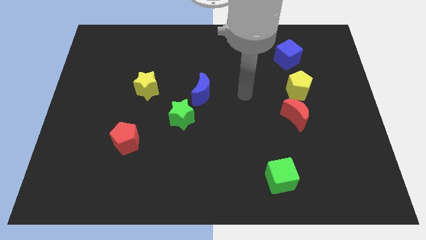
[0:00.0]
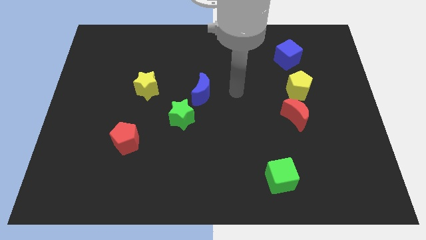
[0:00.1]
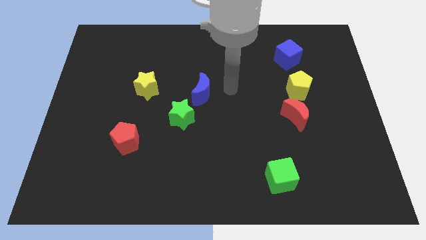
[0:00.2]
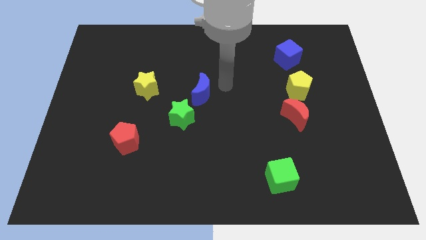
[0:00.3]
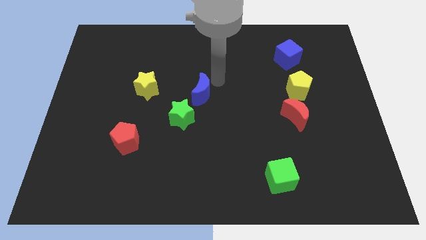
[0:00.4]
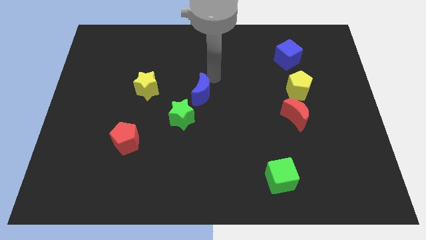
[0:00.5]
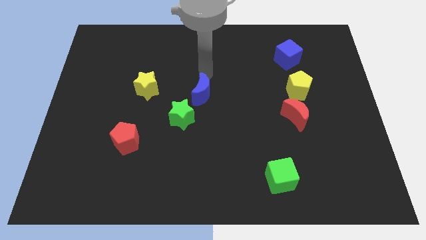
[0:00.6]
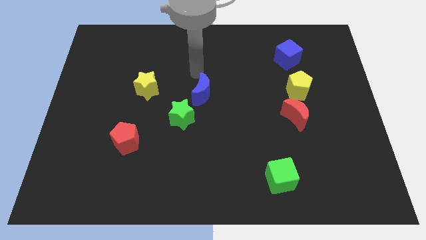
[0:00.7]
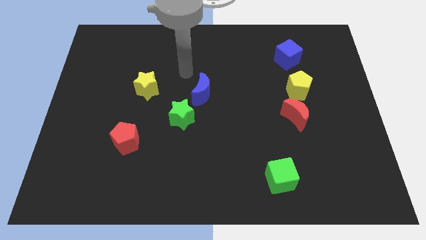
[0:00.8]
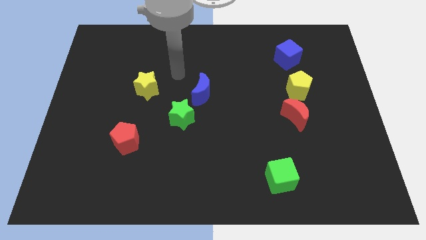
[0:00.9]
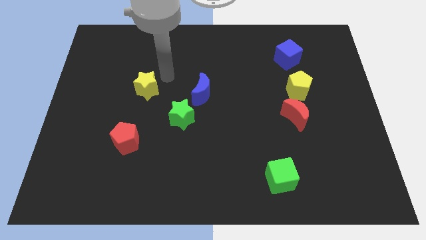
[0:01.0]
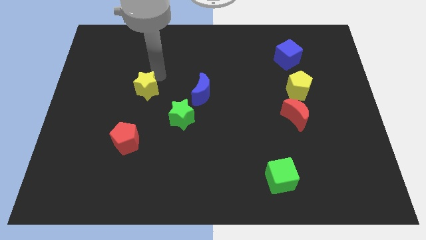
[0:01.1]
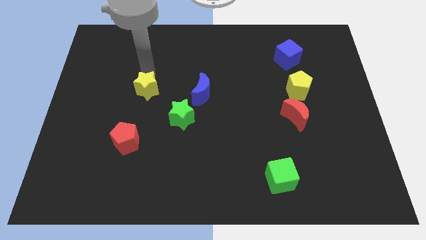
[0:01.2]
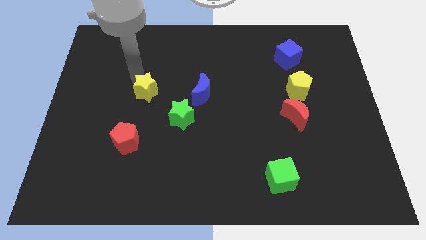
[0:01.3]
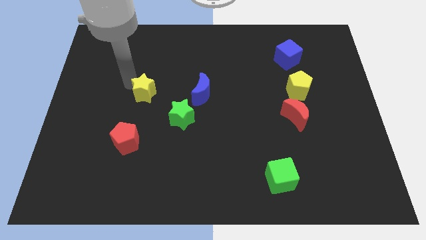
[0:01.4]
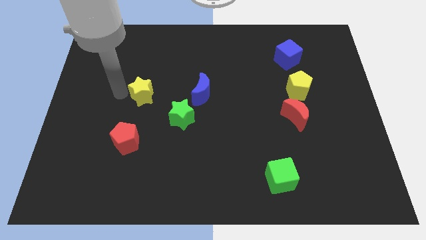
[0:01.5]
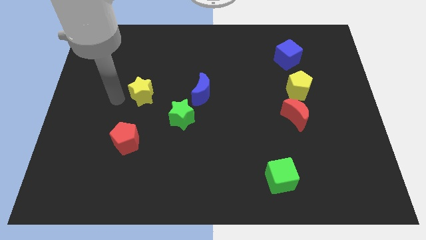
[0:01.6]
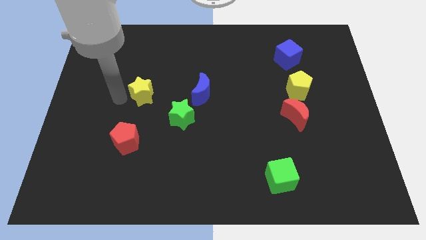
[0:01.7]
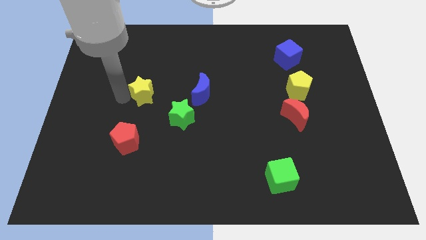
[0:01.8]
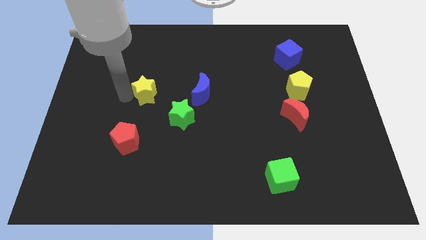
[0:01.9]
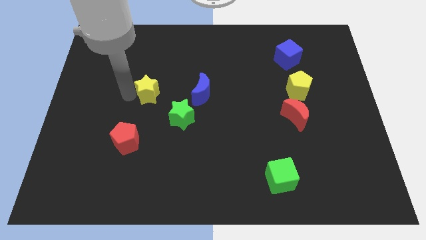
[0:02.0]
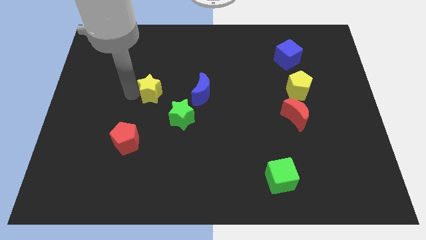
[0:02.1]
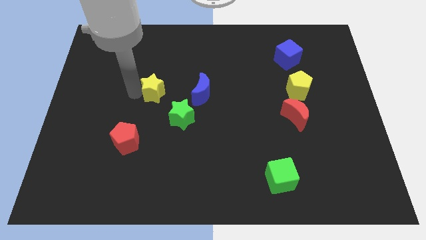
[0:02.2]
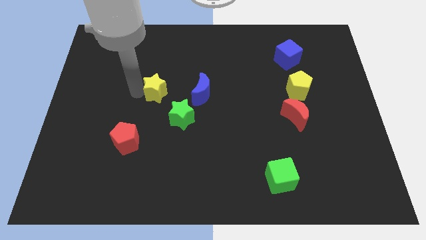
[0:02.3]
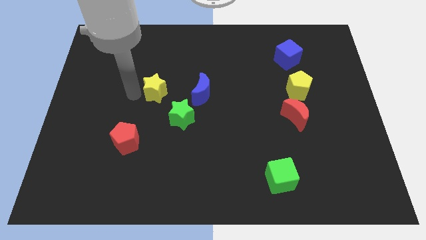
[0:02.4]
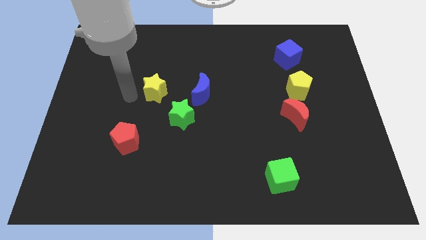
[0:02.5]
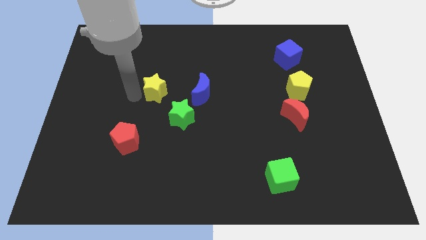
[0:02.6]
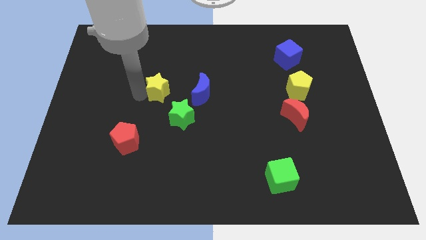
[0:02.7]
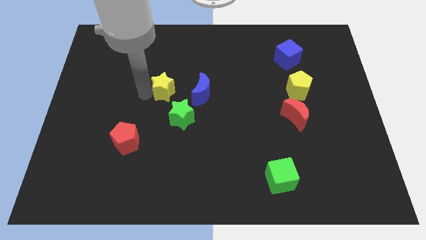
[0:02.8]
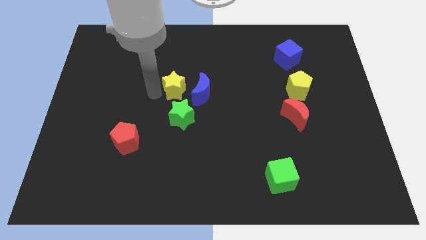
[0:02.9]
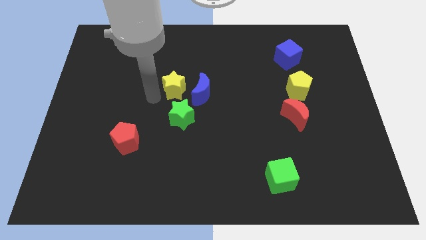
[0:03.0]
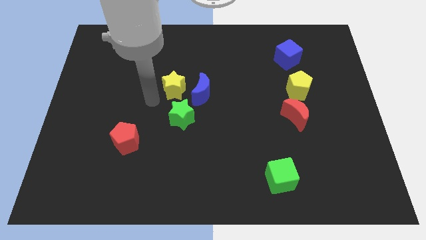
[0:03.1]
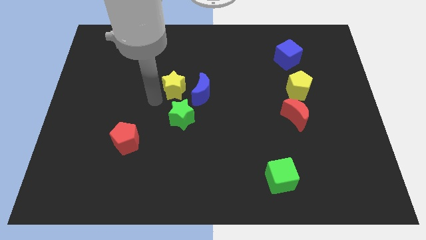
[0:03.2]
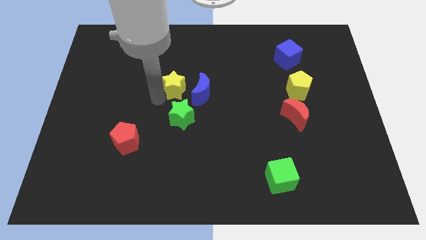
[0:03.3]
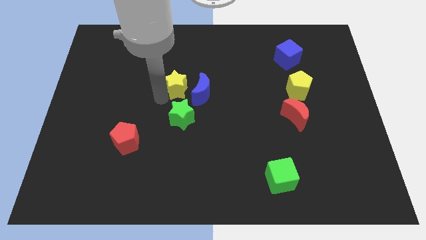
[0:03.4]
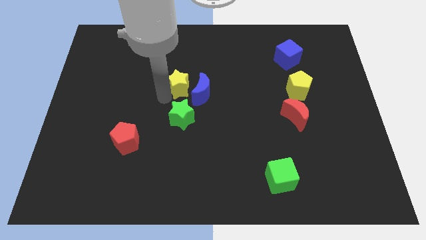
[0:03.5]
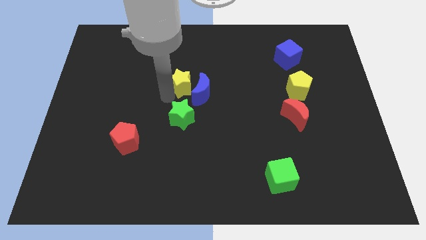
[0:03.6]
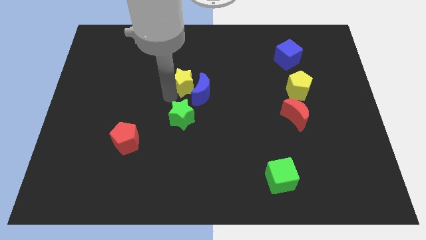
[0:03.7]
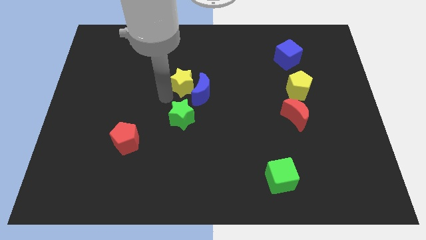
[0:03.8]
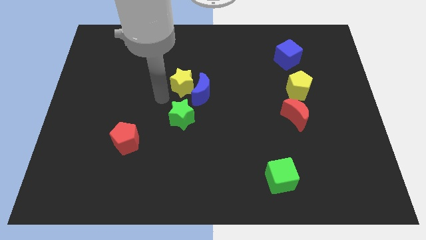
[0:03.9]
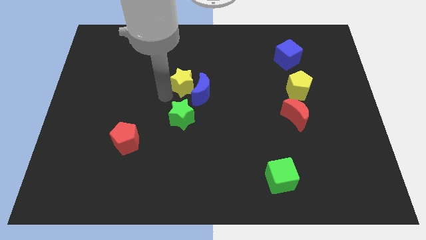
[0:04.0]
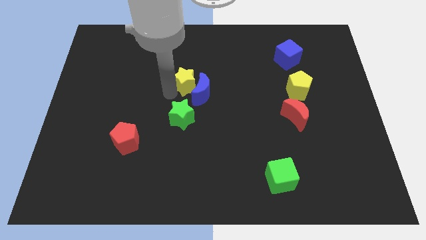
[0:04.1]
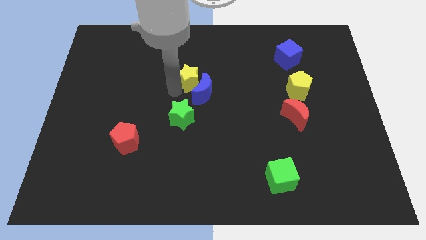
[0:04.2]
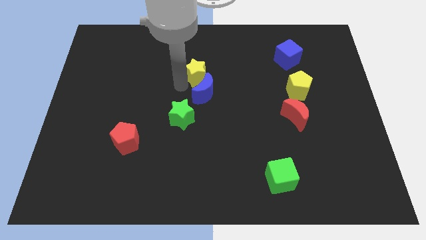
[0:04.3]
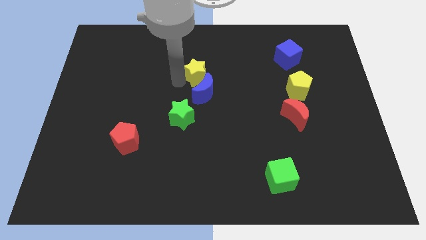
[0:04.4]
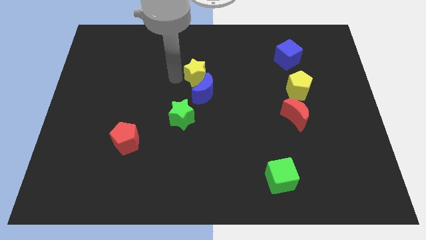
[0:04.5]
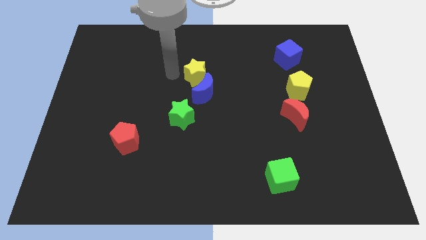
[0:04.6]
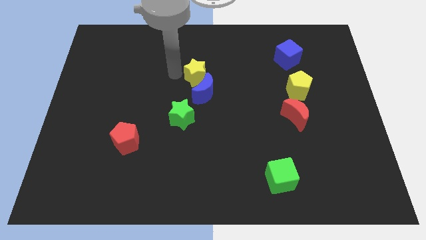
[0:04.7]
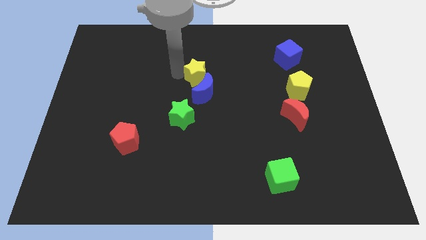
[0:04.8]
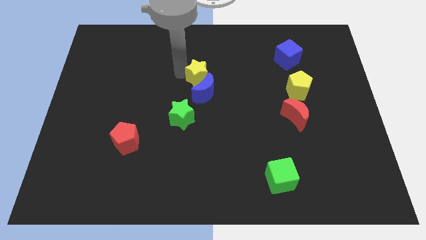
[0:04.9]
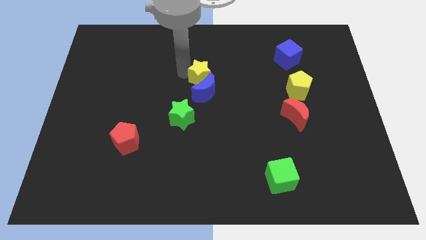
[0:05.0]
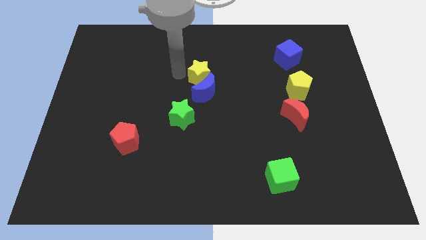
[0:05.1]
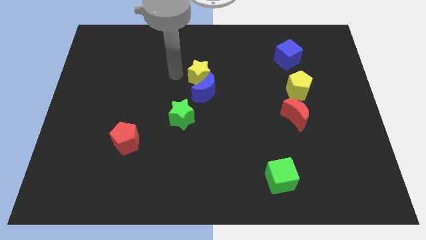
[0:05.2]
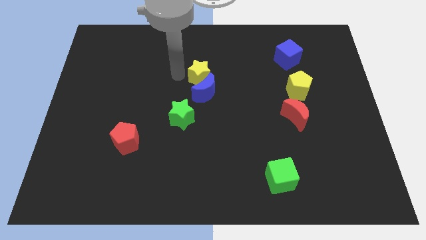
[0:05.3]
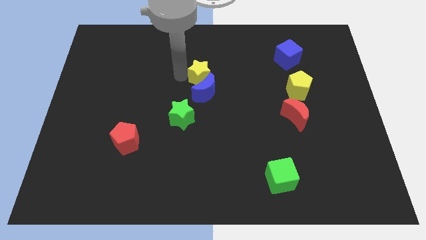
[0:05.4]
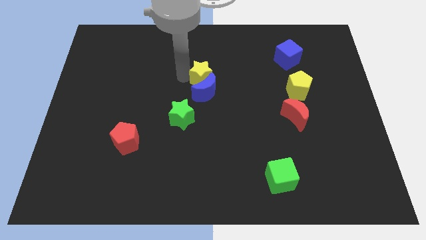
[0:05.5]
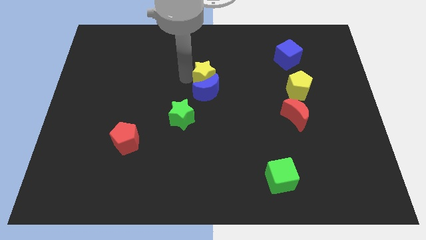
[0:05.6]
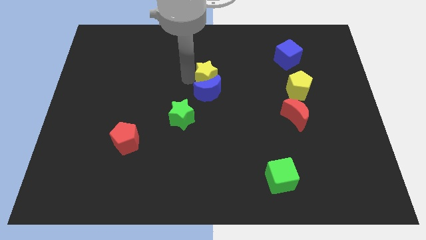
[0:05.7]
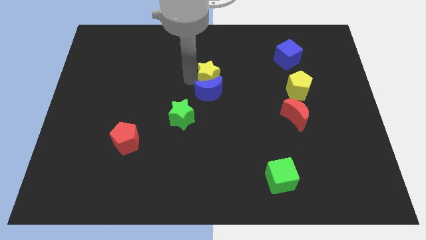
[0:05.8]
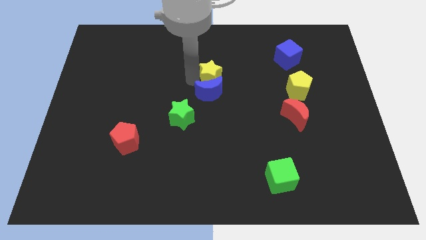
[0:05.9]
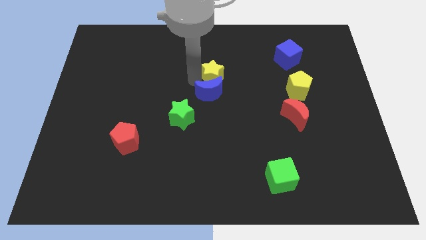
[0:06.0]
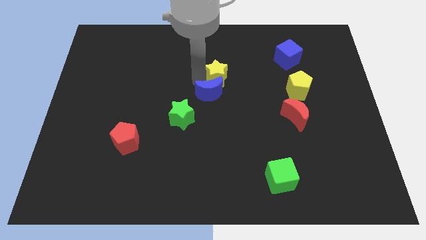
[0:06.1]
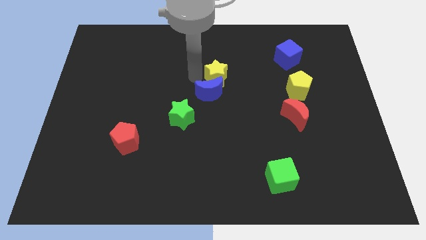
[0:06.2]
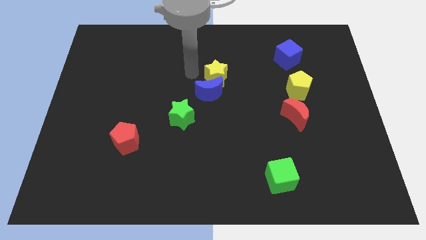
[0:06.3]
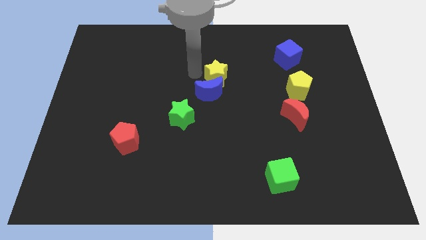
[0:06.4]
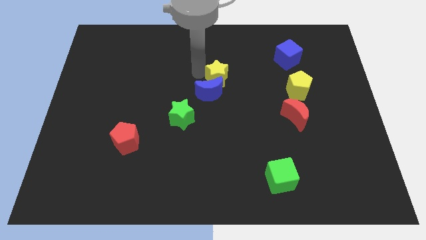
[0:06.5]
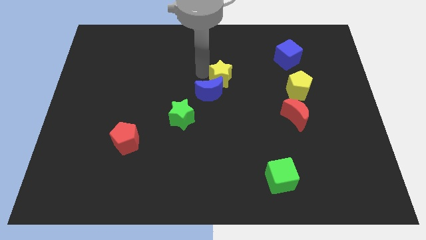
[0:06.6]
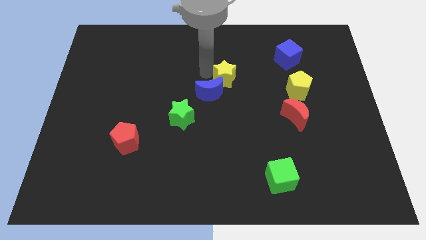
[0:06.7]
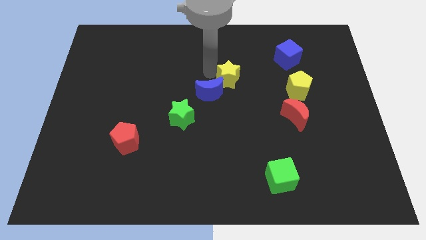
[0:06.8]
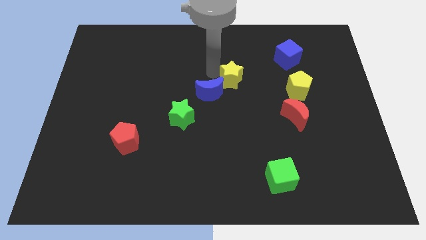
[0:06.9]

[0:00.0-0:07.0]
slide the yellow star right

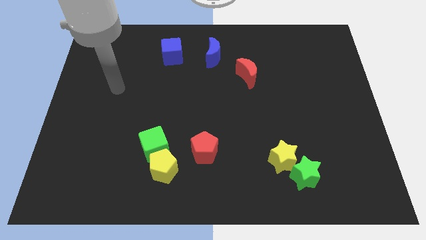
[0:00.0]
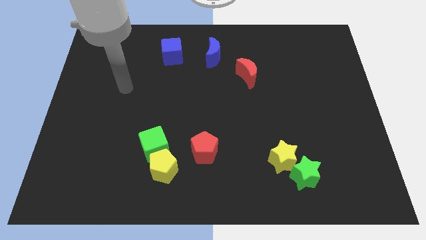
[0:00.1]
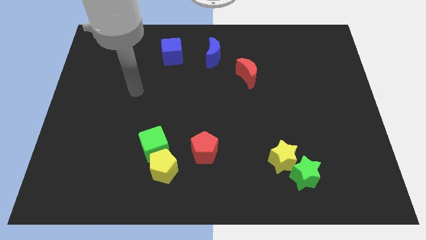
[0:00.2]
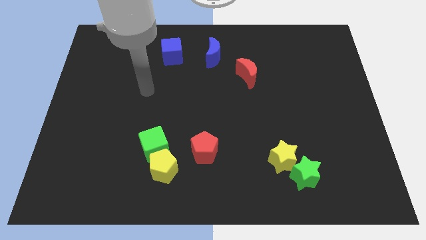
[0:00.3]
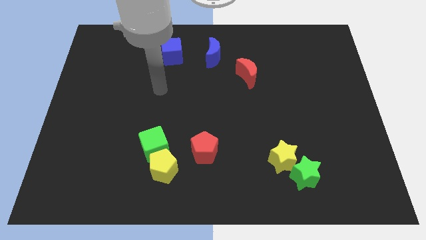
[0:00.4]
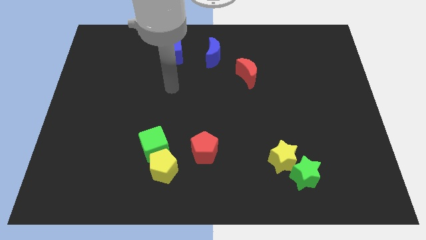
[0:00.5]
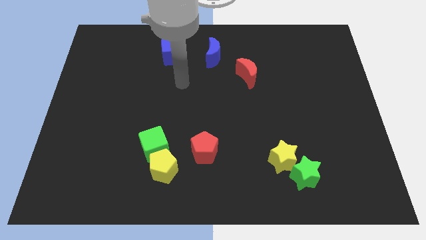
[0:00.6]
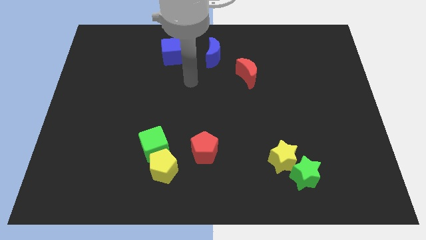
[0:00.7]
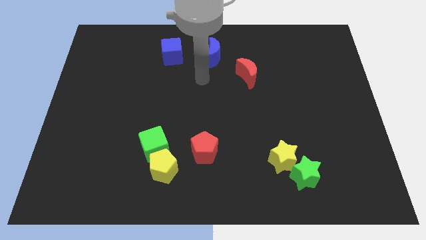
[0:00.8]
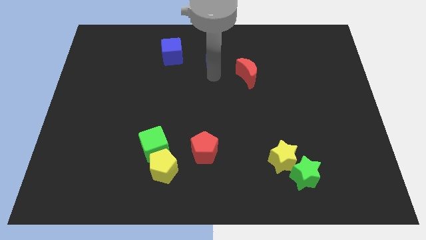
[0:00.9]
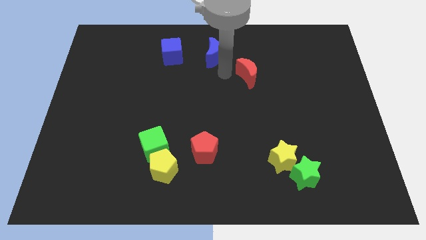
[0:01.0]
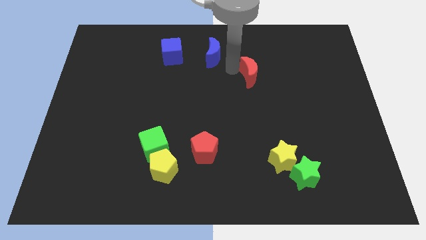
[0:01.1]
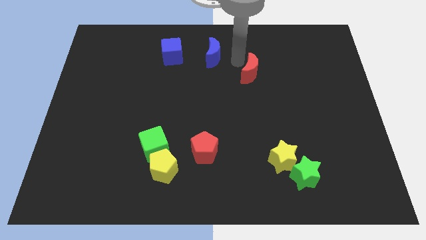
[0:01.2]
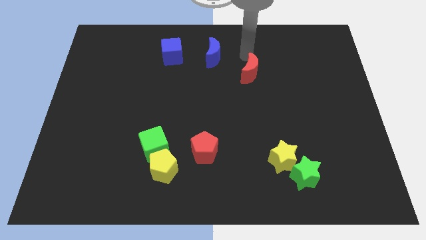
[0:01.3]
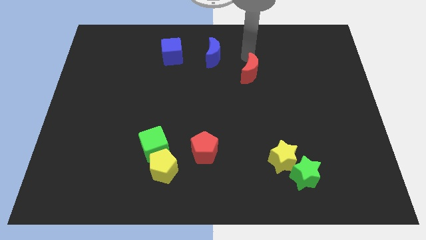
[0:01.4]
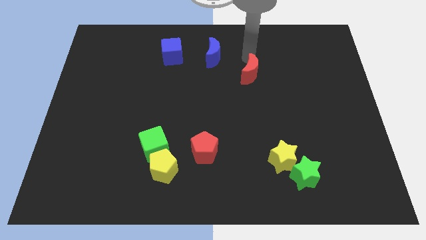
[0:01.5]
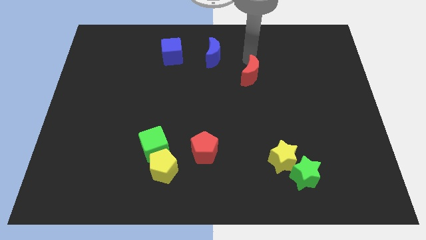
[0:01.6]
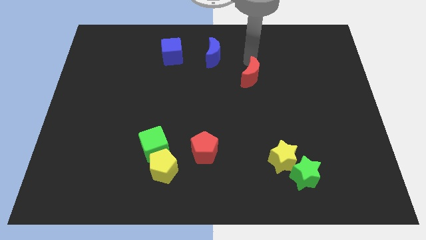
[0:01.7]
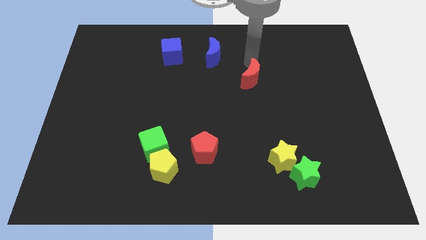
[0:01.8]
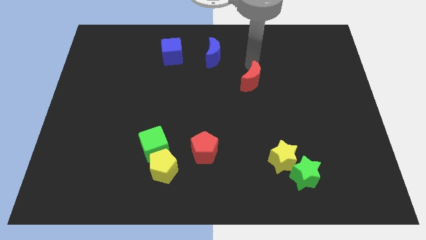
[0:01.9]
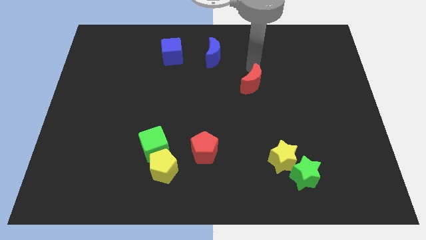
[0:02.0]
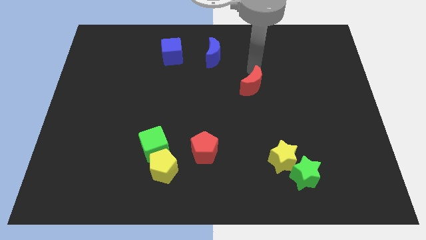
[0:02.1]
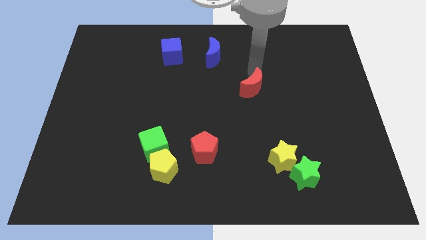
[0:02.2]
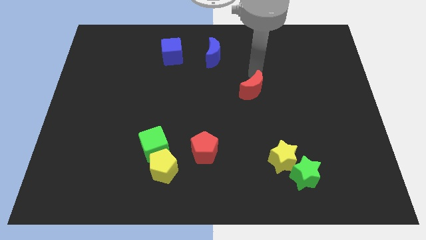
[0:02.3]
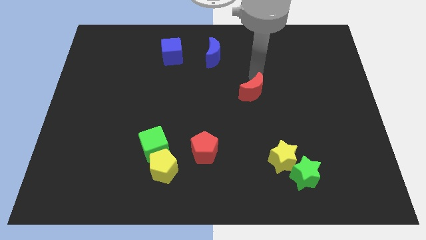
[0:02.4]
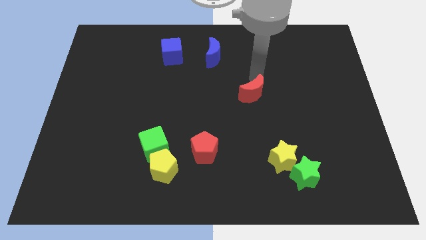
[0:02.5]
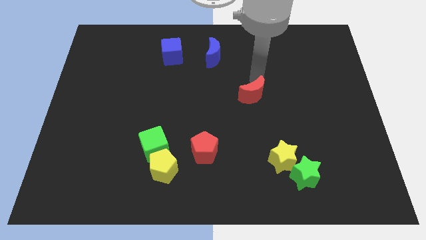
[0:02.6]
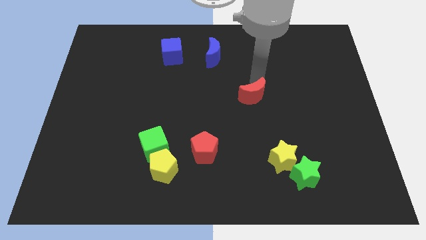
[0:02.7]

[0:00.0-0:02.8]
slide the red moon a little downwards
